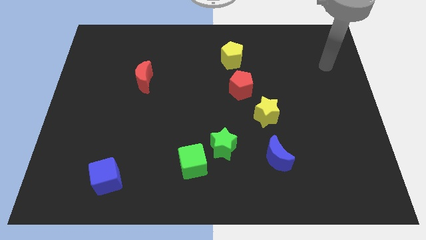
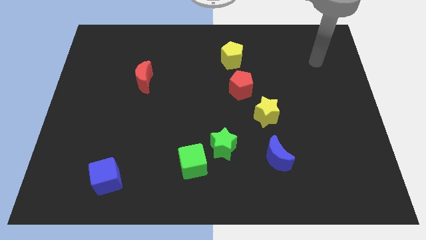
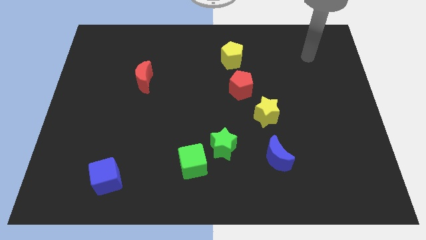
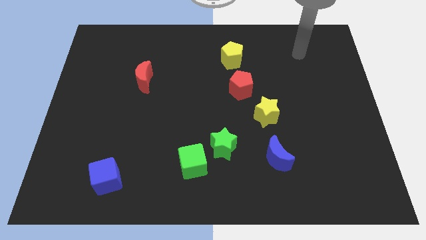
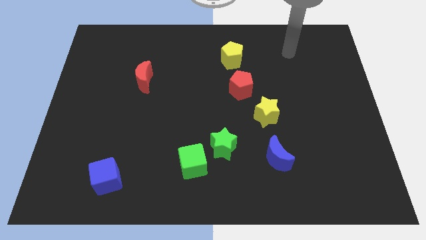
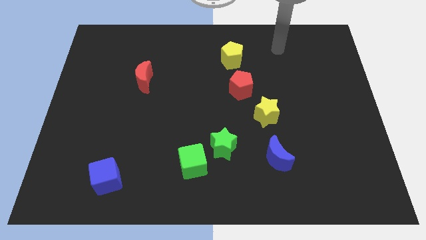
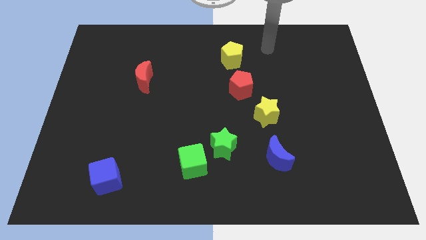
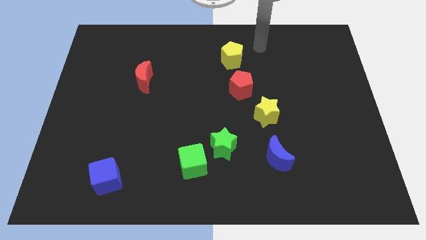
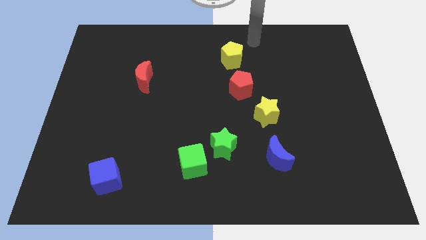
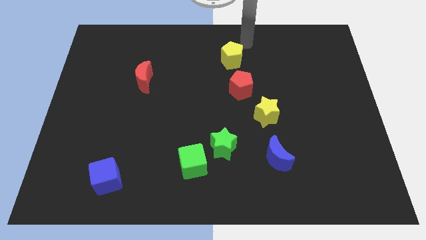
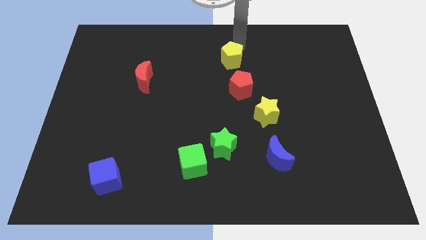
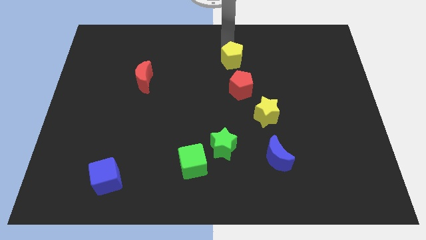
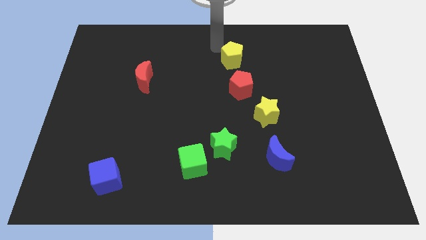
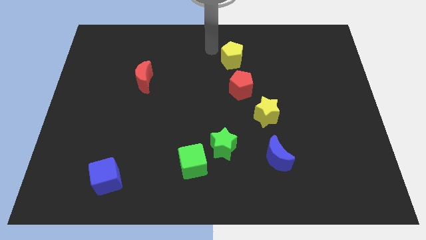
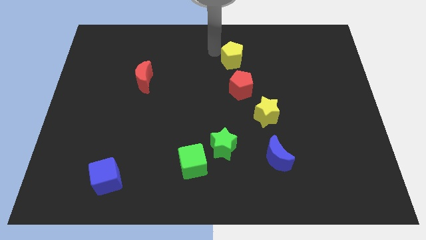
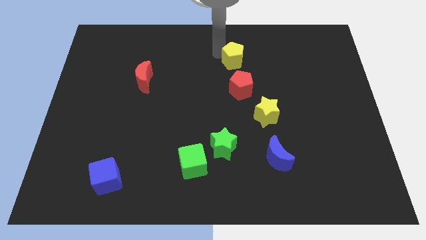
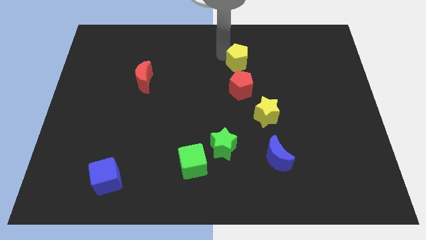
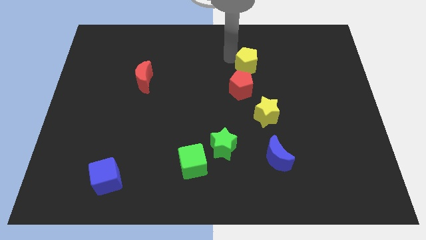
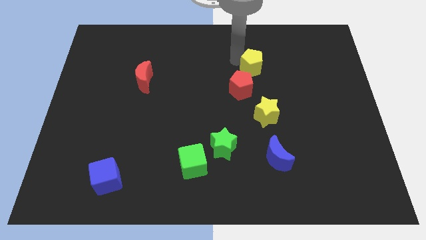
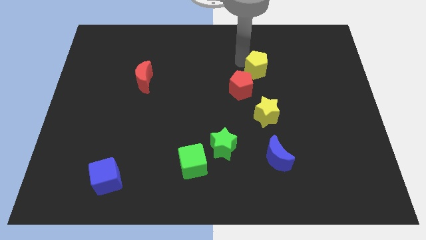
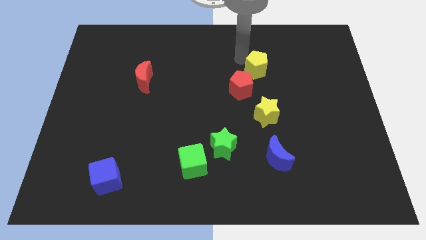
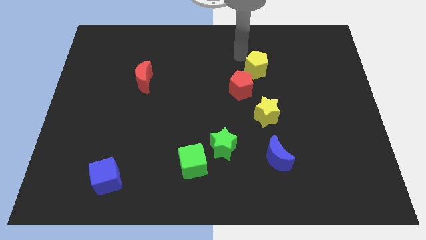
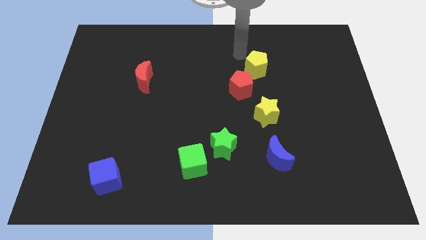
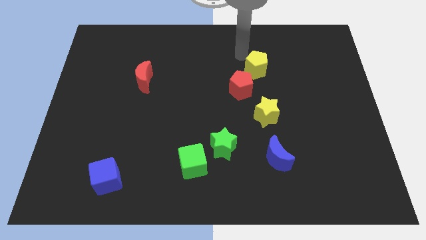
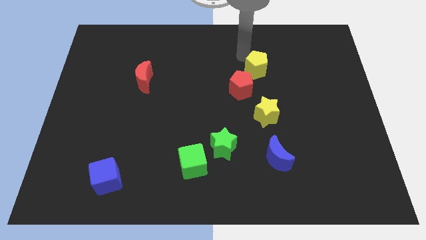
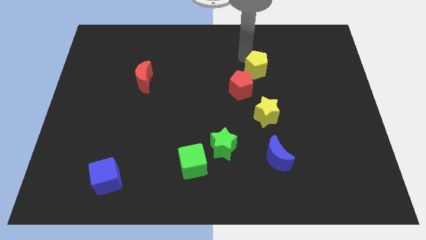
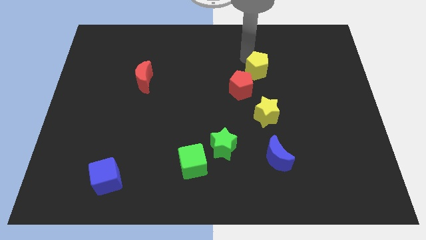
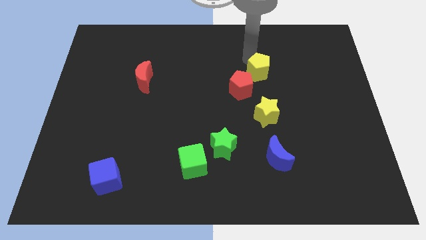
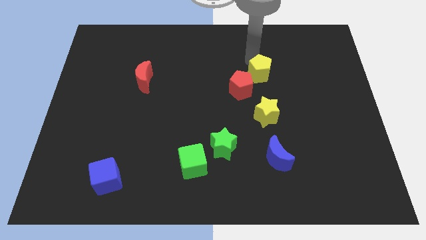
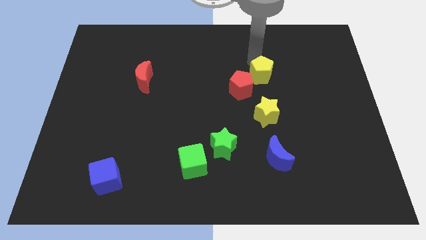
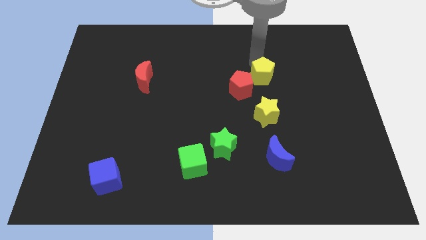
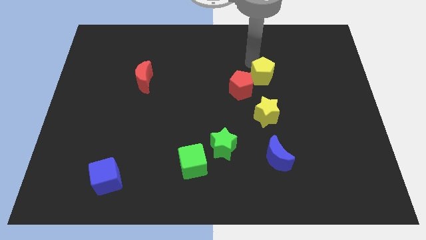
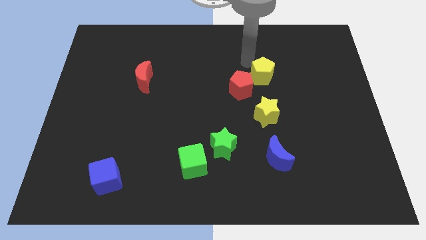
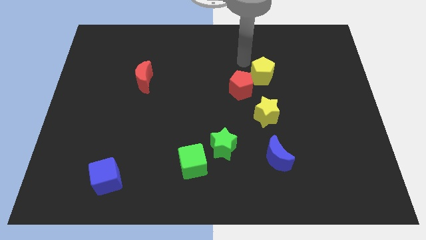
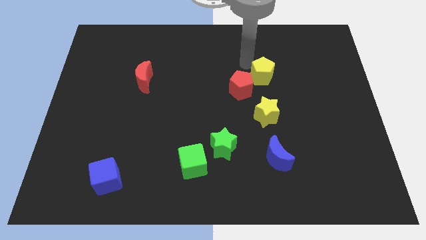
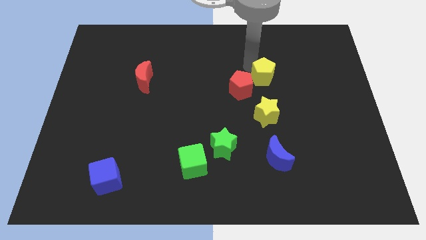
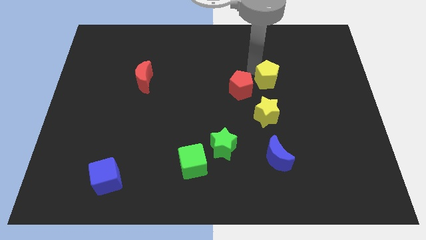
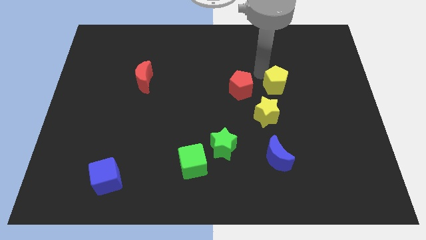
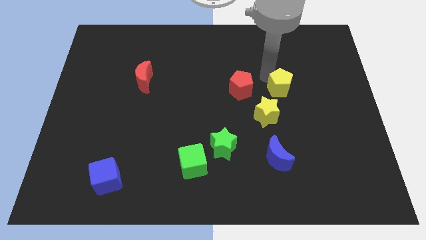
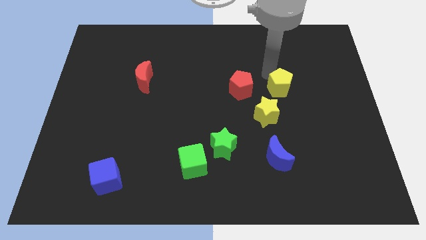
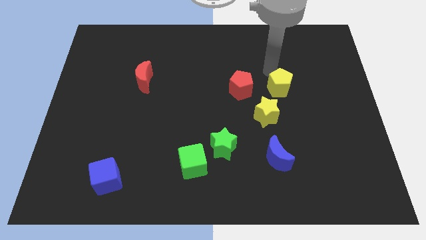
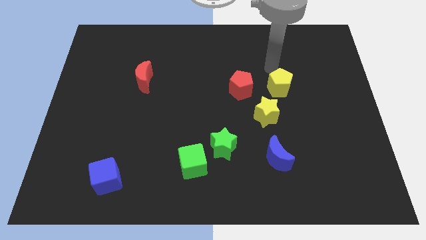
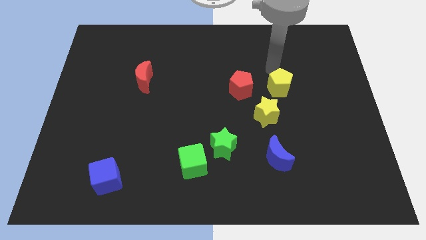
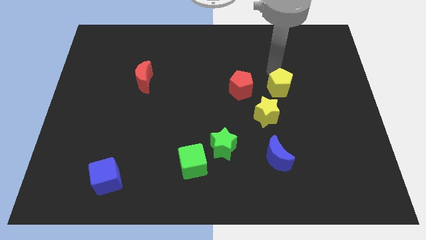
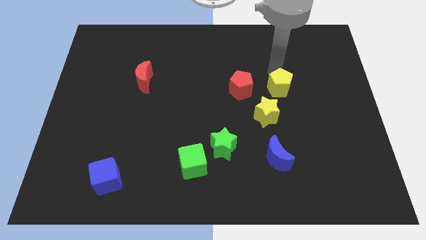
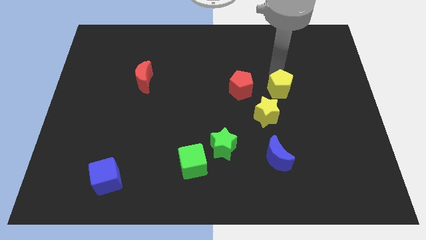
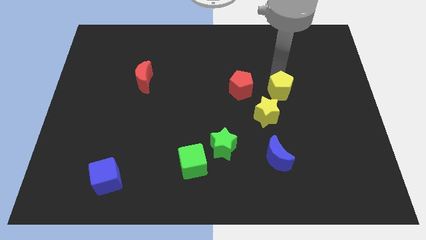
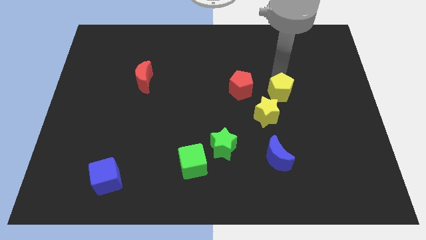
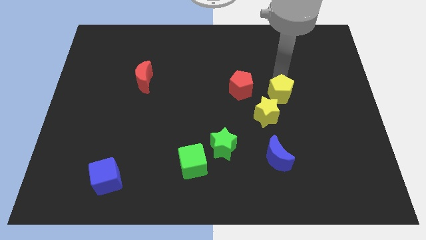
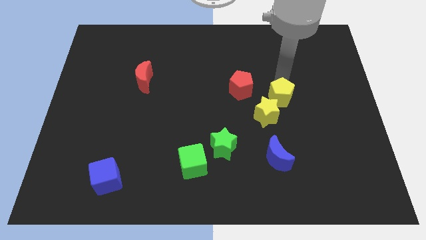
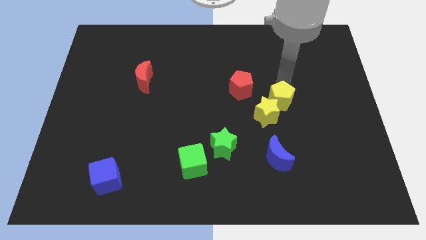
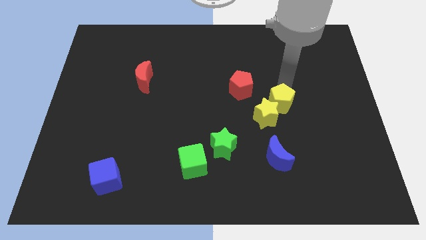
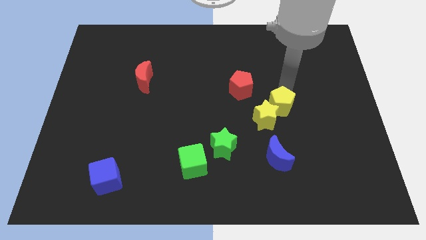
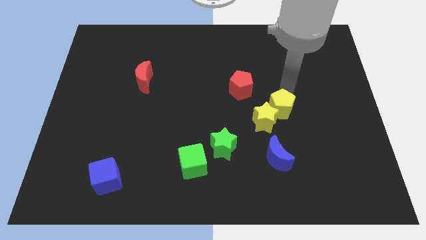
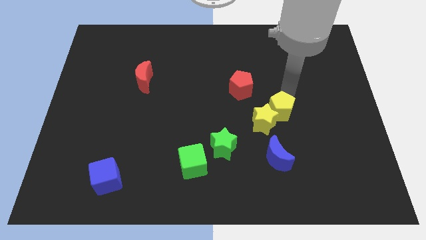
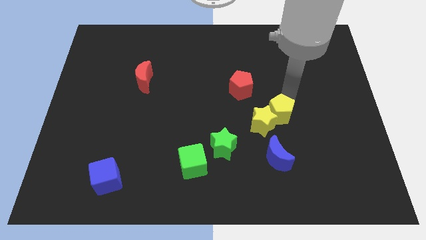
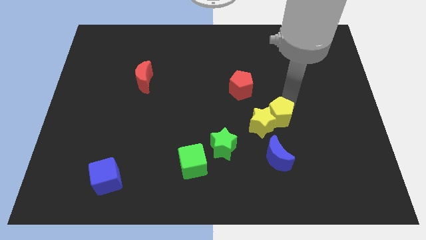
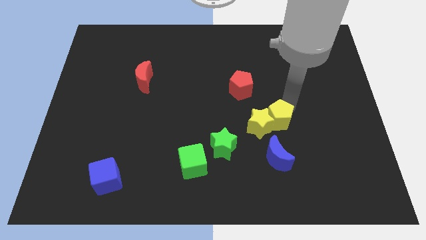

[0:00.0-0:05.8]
slide the yellow pentagon to the bottom right of the yellow star

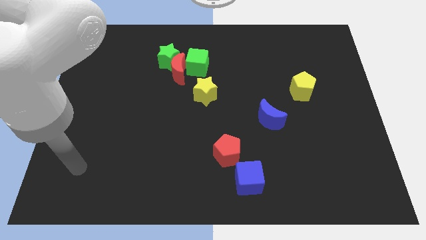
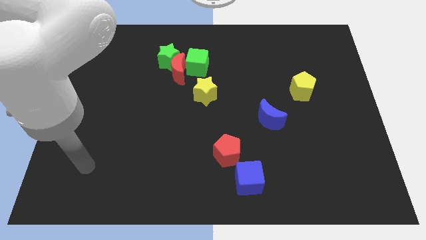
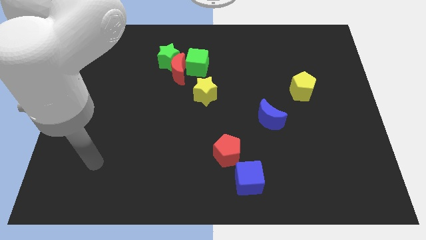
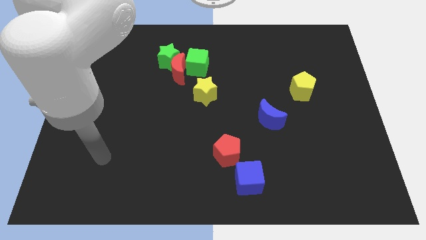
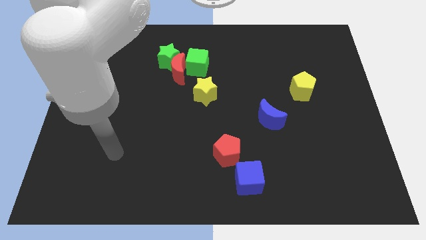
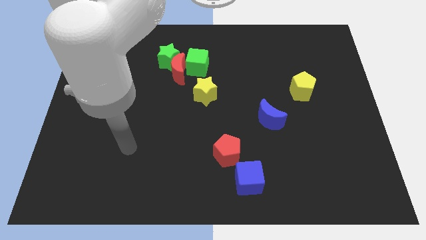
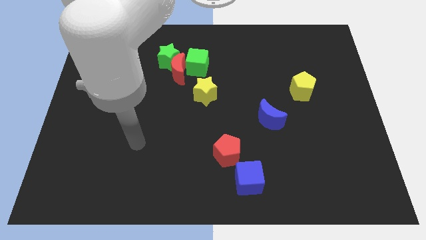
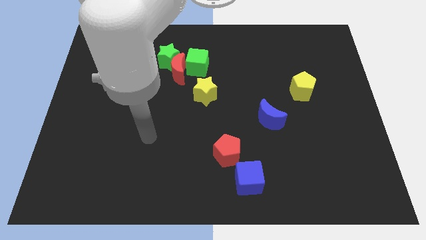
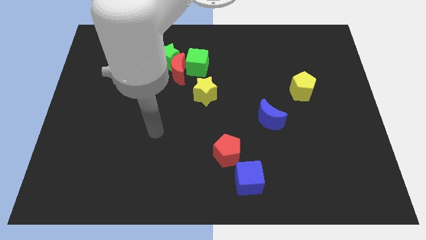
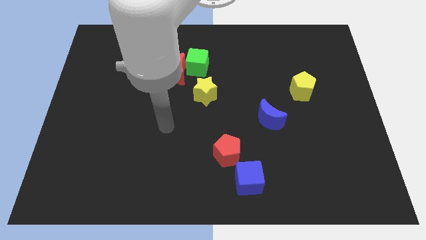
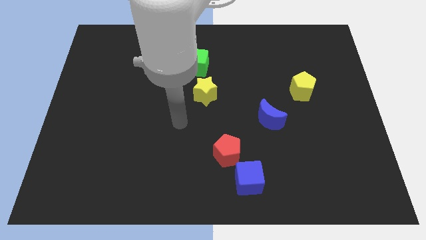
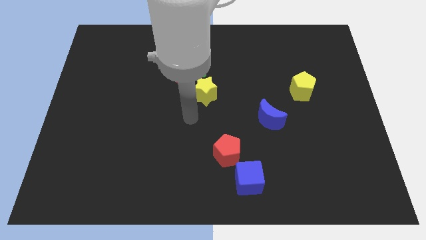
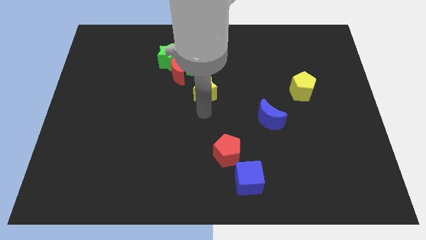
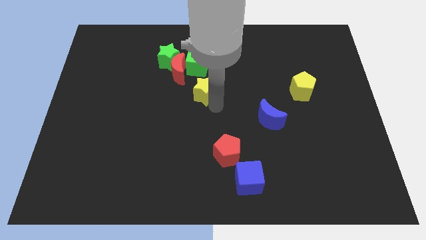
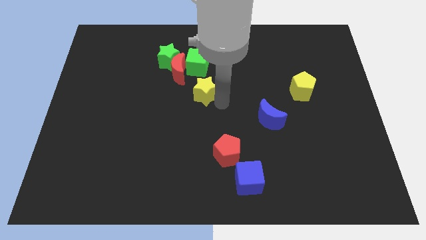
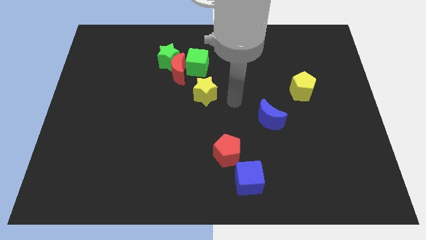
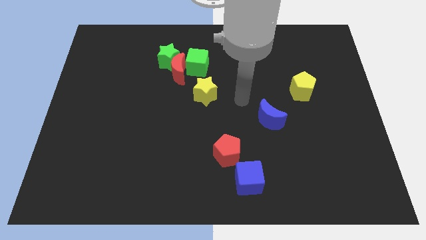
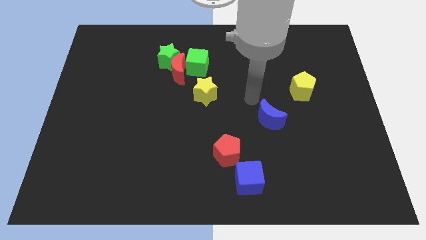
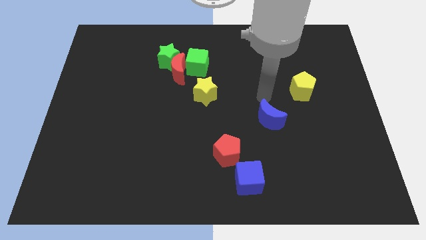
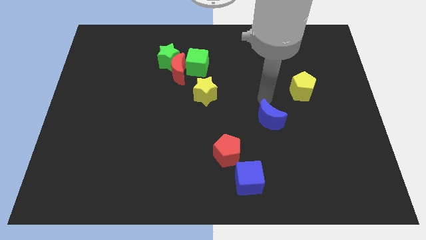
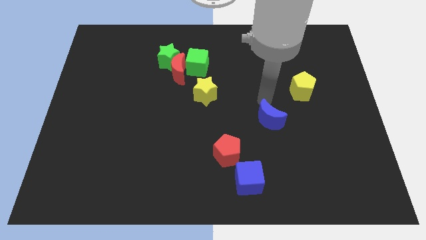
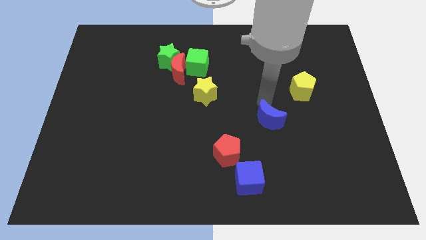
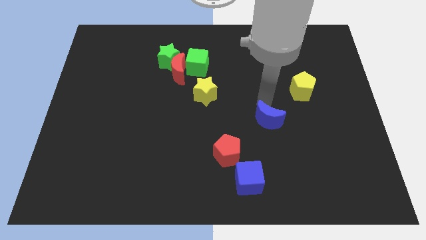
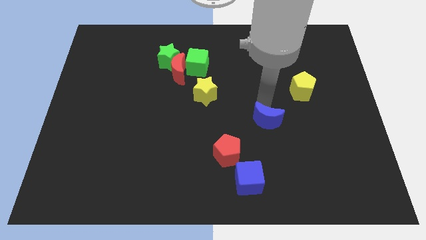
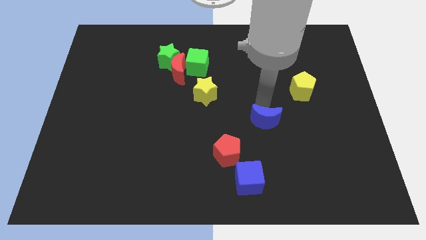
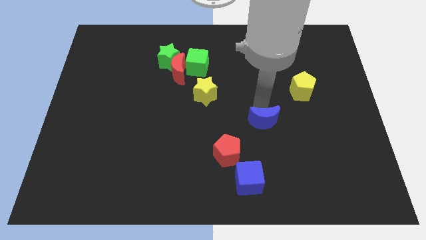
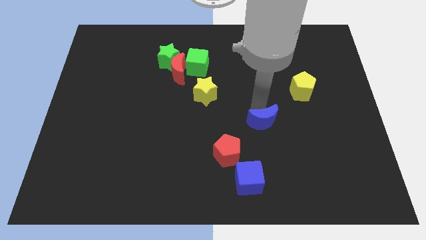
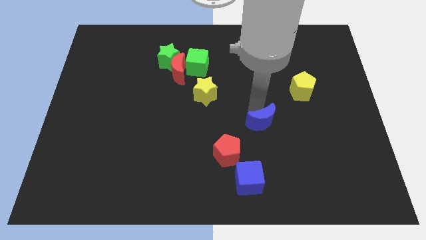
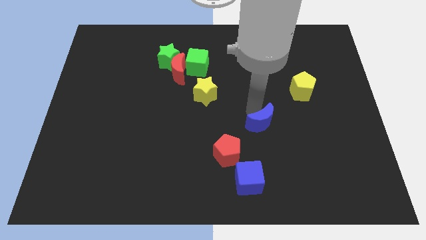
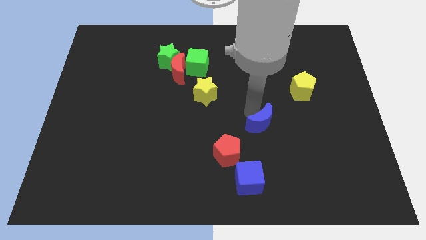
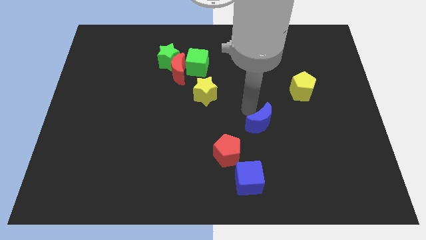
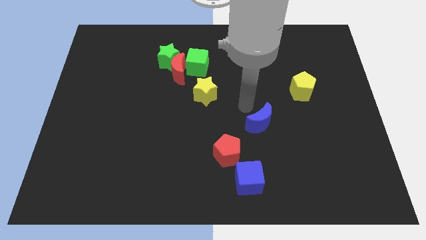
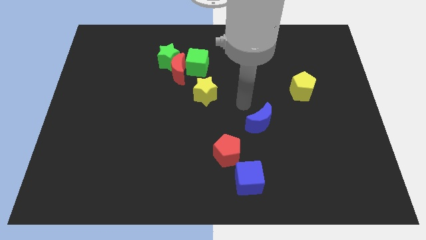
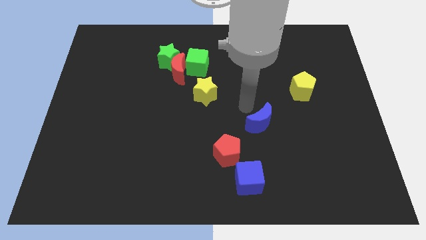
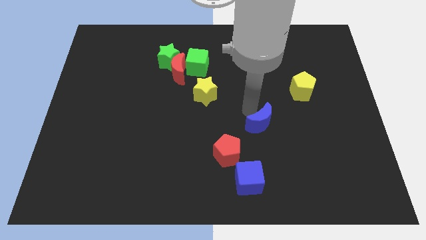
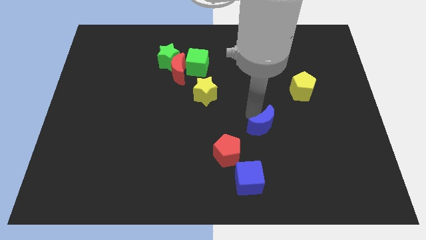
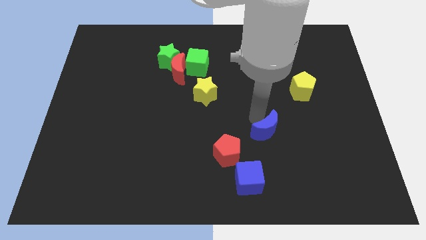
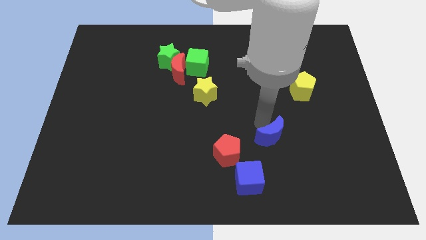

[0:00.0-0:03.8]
put the blue moon right of the red pentagon
